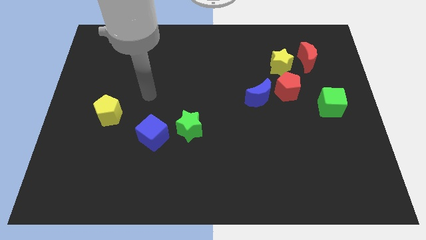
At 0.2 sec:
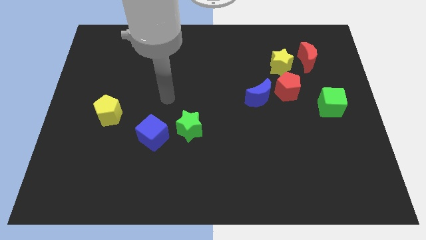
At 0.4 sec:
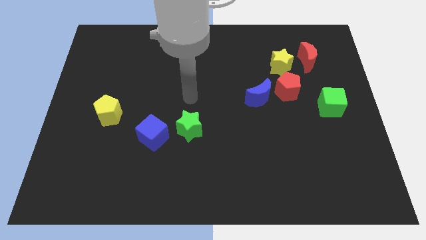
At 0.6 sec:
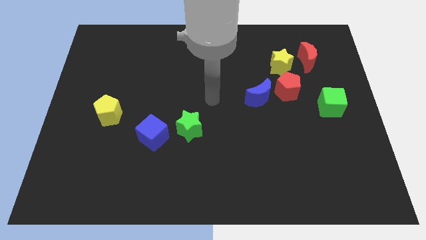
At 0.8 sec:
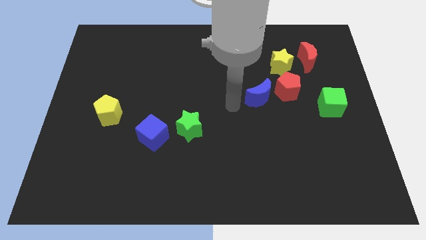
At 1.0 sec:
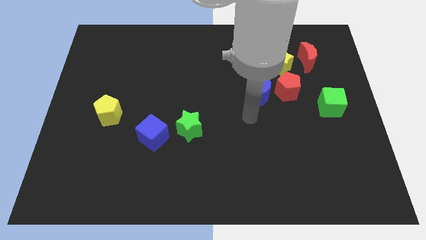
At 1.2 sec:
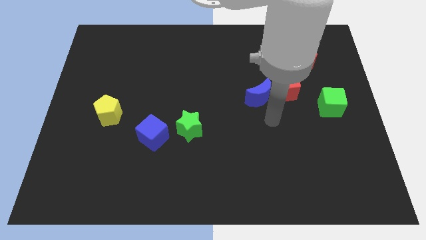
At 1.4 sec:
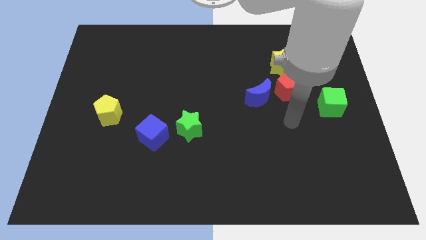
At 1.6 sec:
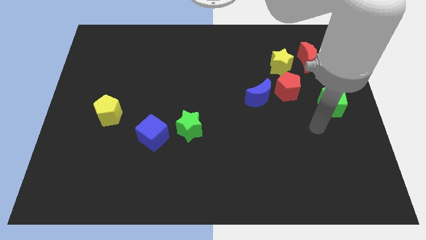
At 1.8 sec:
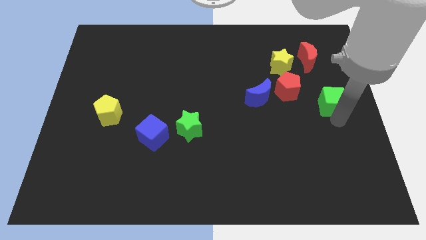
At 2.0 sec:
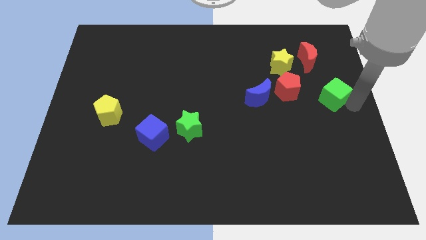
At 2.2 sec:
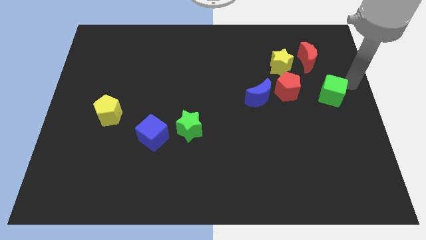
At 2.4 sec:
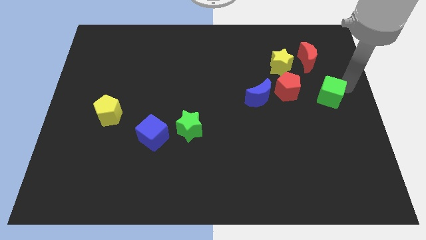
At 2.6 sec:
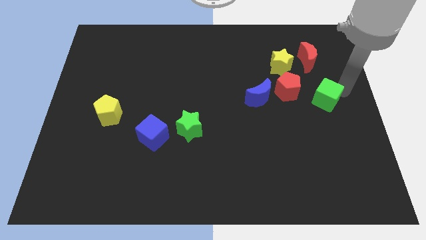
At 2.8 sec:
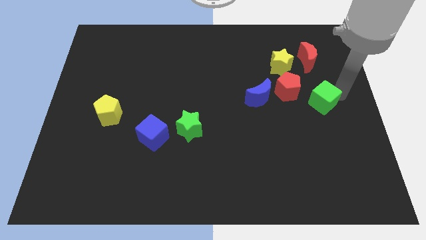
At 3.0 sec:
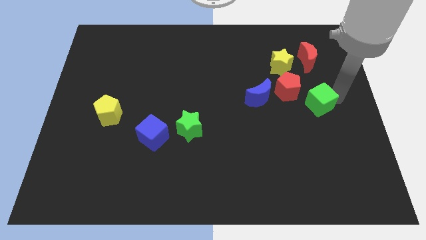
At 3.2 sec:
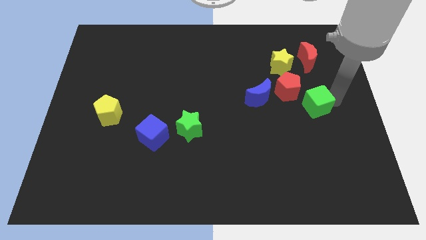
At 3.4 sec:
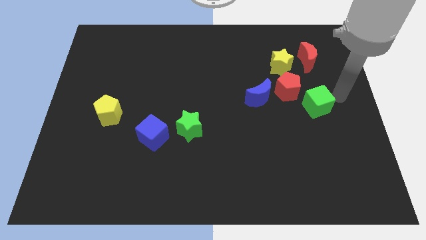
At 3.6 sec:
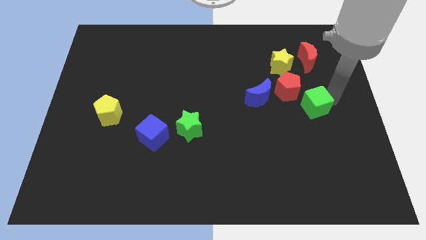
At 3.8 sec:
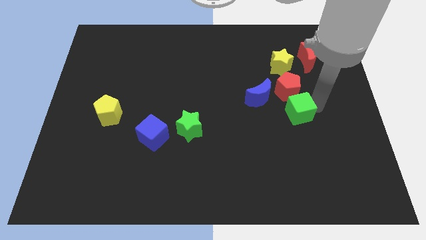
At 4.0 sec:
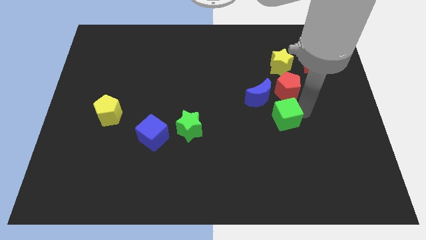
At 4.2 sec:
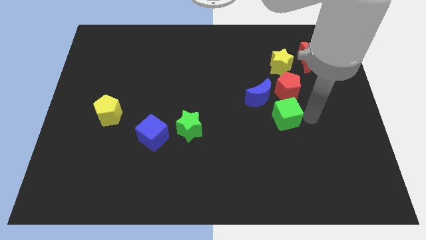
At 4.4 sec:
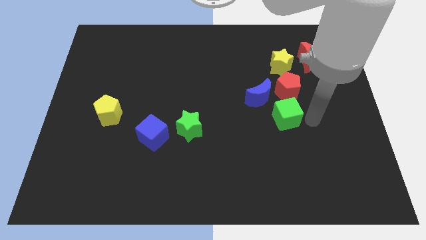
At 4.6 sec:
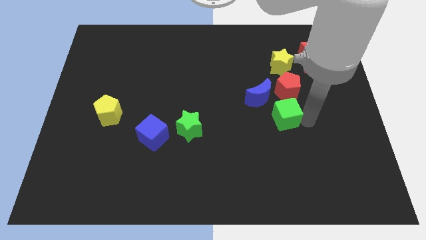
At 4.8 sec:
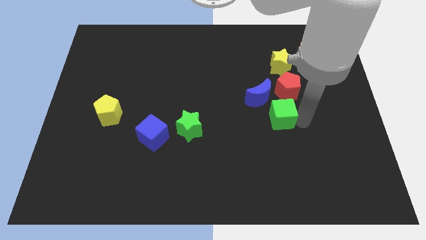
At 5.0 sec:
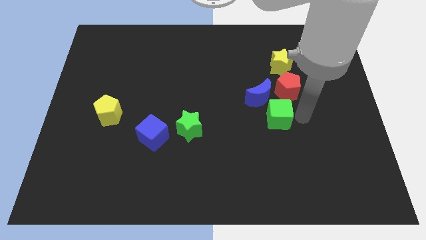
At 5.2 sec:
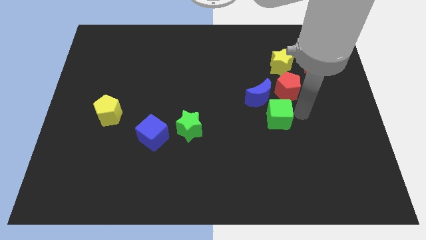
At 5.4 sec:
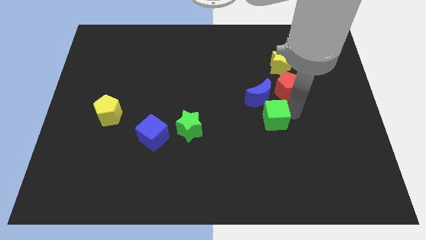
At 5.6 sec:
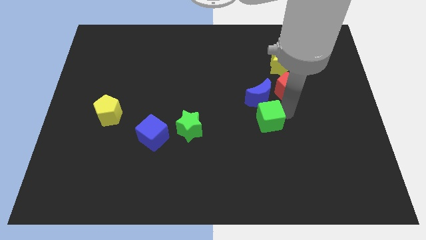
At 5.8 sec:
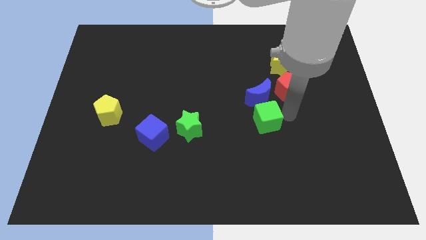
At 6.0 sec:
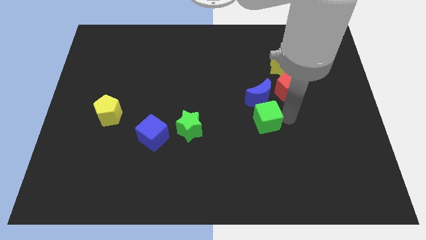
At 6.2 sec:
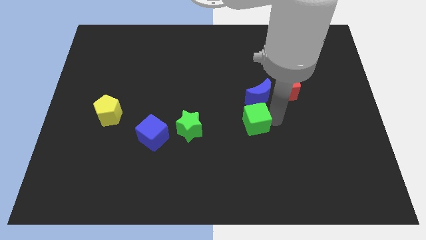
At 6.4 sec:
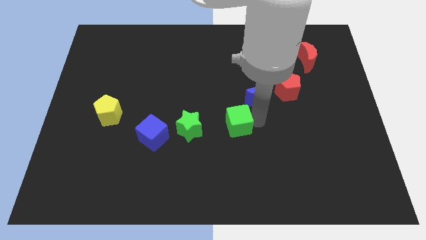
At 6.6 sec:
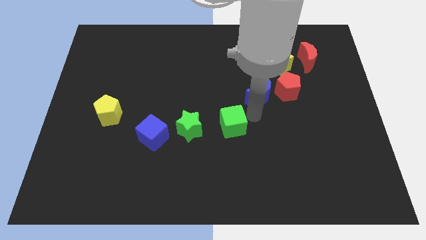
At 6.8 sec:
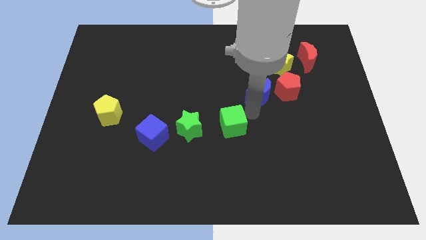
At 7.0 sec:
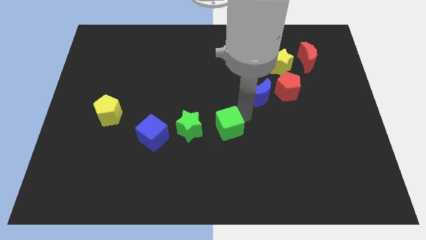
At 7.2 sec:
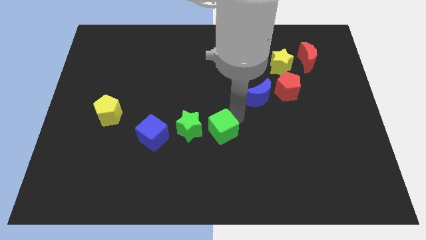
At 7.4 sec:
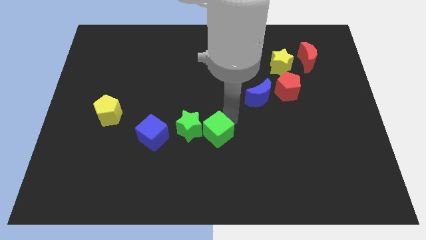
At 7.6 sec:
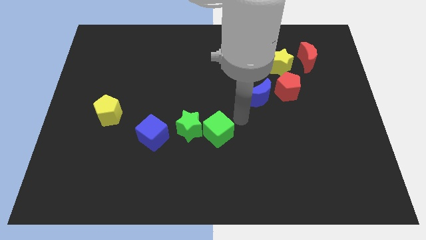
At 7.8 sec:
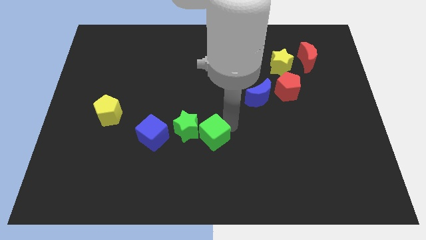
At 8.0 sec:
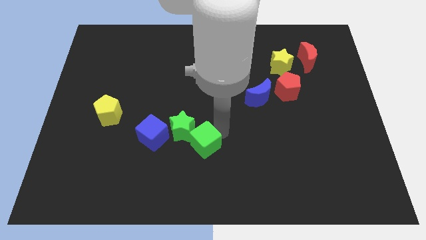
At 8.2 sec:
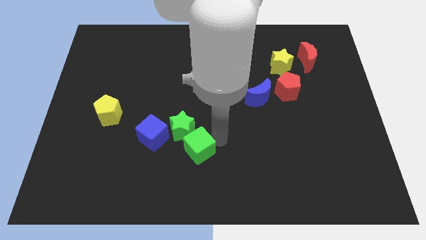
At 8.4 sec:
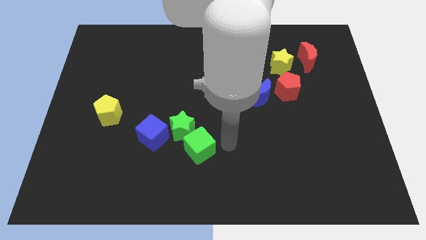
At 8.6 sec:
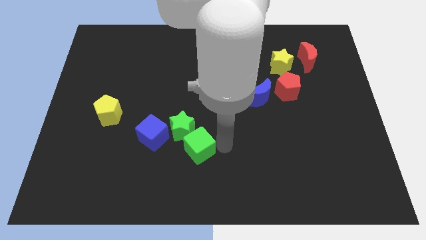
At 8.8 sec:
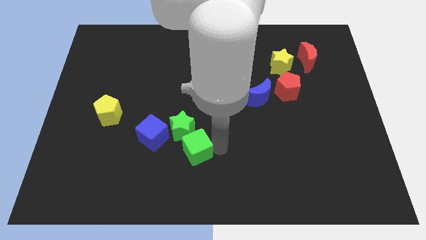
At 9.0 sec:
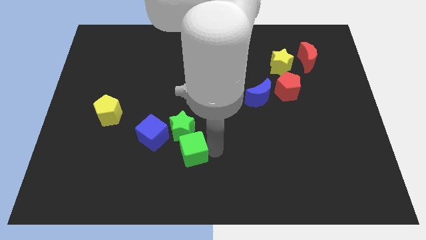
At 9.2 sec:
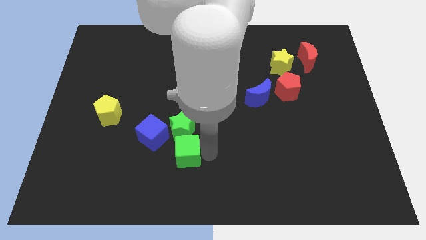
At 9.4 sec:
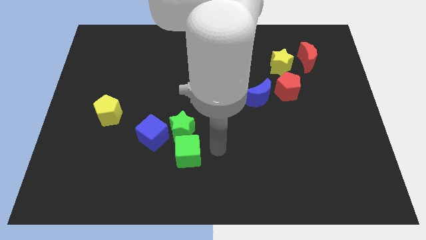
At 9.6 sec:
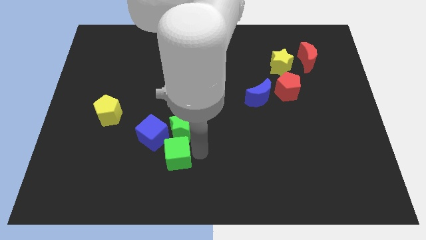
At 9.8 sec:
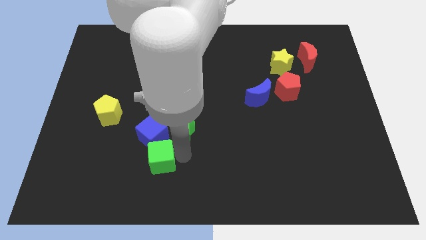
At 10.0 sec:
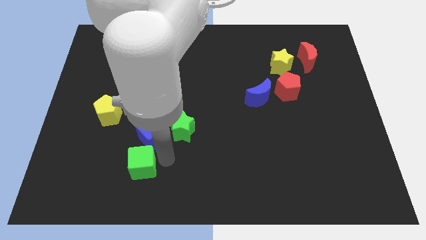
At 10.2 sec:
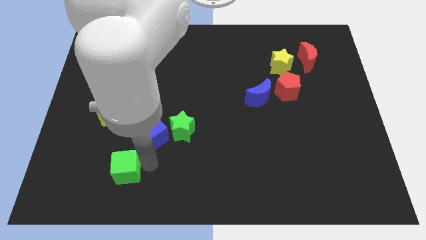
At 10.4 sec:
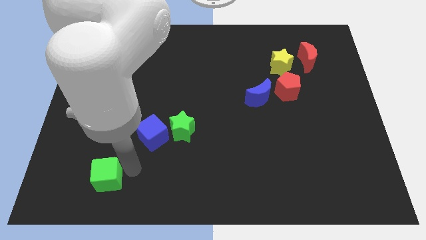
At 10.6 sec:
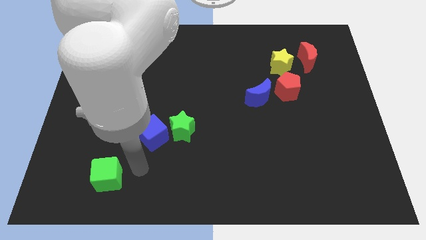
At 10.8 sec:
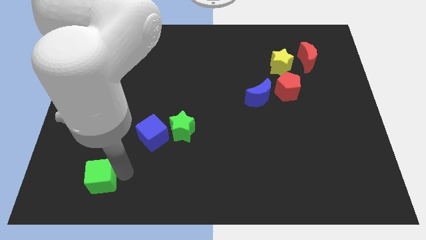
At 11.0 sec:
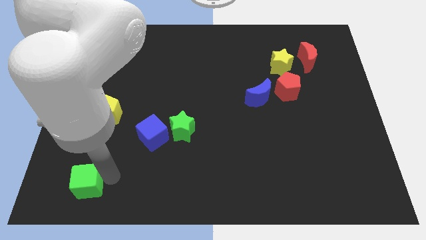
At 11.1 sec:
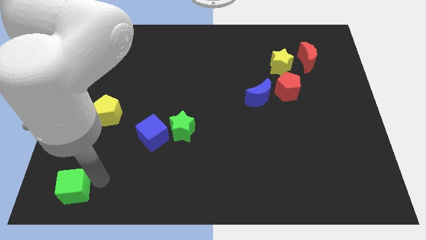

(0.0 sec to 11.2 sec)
put the green cube to the bottom left

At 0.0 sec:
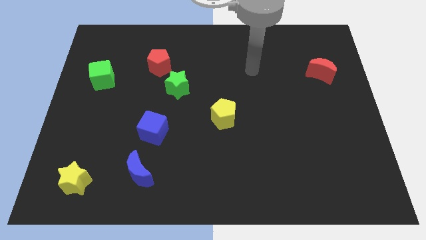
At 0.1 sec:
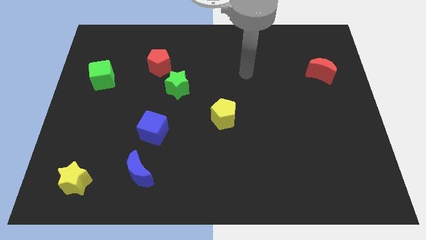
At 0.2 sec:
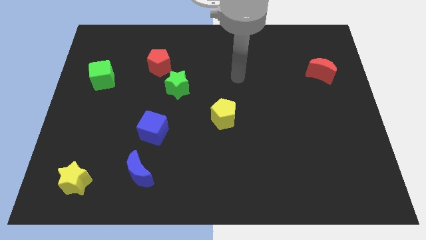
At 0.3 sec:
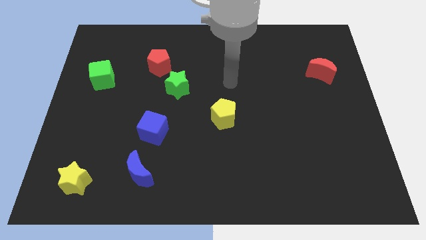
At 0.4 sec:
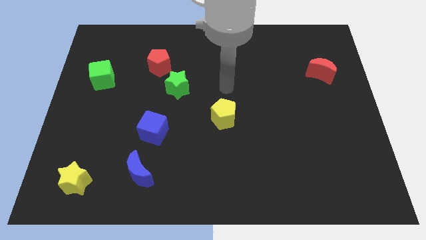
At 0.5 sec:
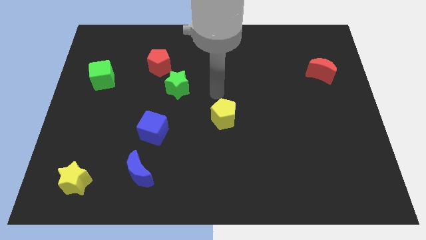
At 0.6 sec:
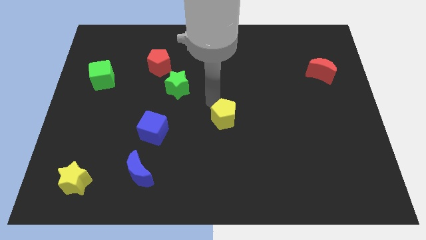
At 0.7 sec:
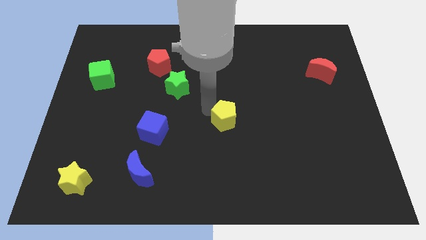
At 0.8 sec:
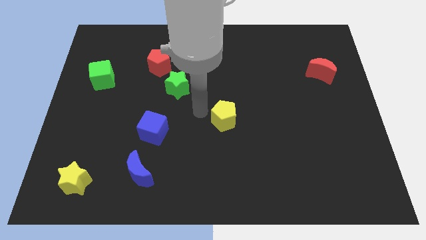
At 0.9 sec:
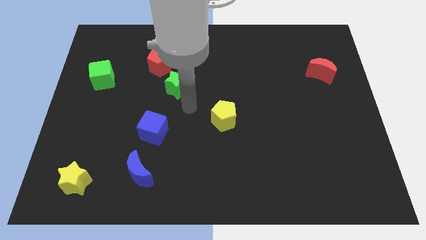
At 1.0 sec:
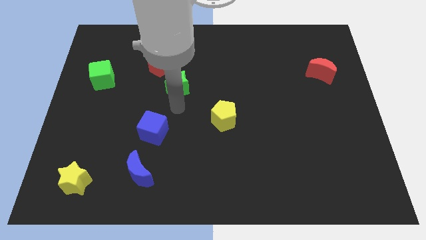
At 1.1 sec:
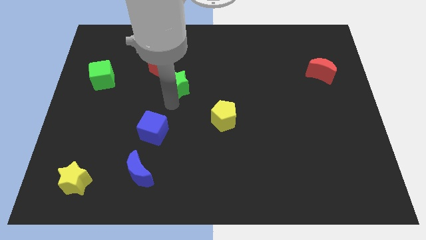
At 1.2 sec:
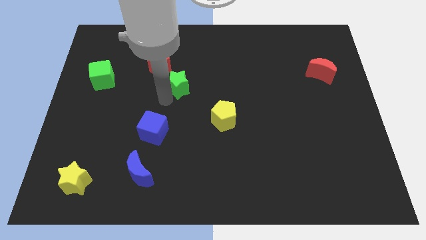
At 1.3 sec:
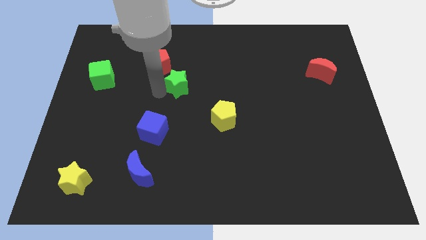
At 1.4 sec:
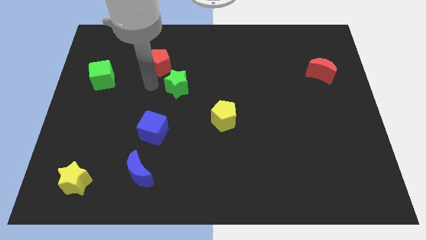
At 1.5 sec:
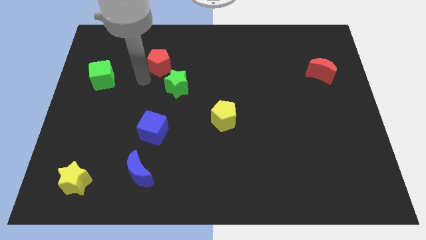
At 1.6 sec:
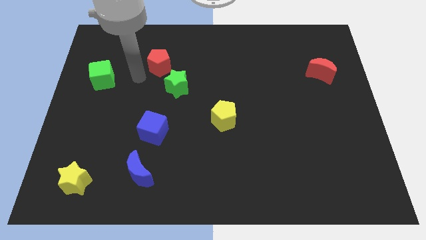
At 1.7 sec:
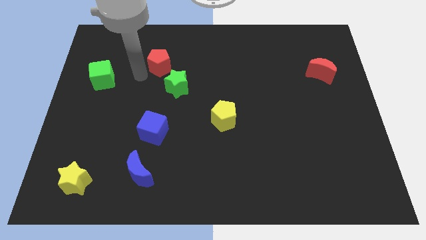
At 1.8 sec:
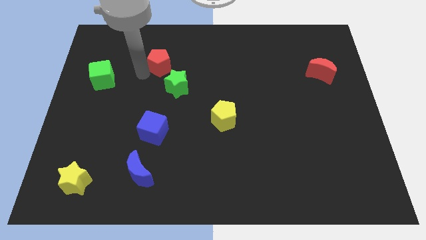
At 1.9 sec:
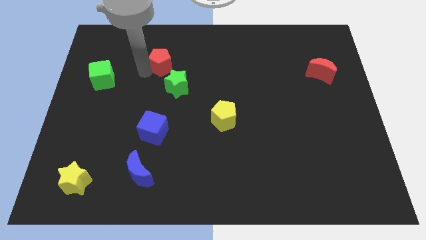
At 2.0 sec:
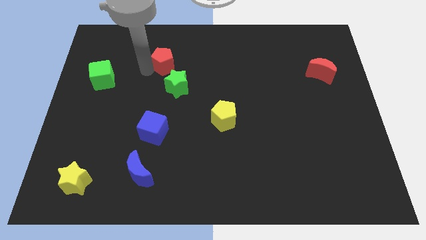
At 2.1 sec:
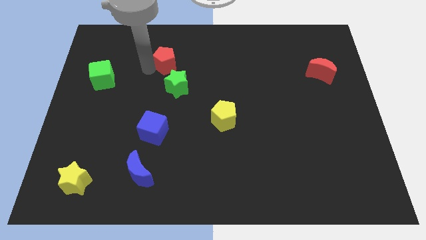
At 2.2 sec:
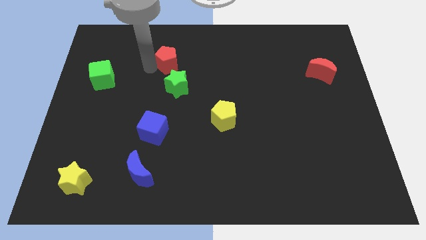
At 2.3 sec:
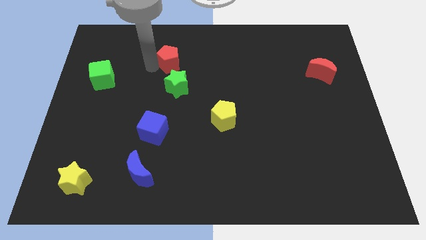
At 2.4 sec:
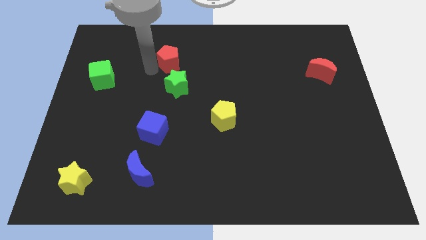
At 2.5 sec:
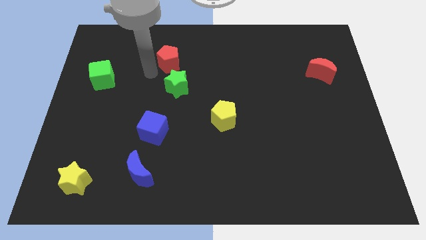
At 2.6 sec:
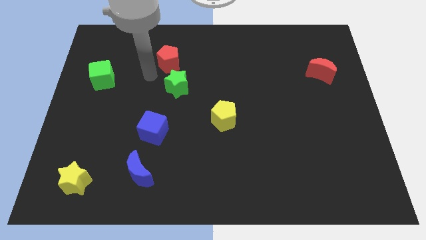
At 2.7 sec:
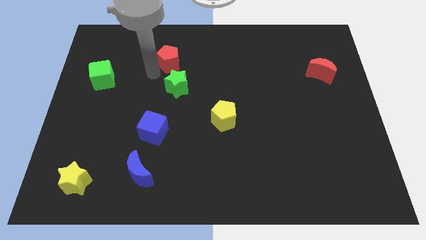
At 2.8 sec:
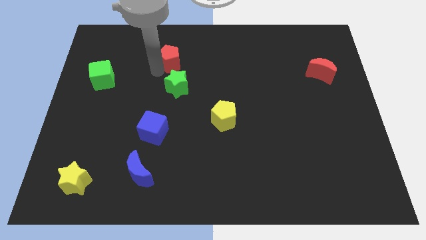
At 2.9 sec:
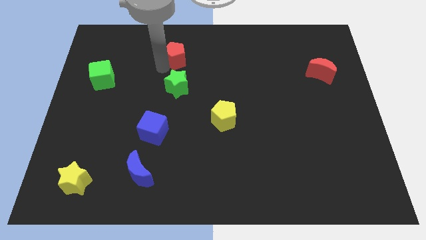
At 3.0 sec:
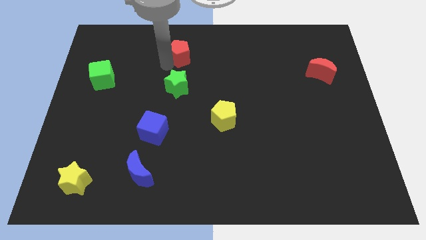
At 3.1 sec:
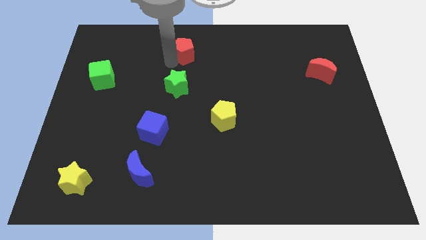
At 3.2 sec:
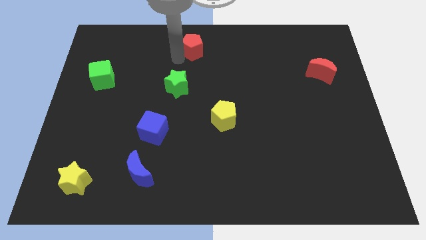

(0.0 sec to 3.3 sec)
push the red pentagon to the towards your base
